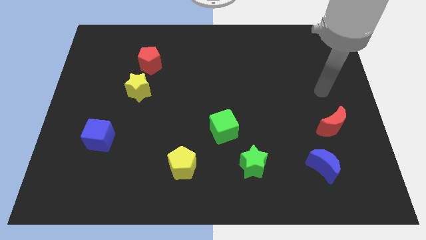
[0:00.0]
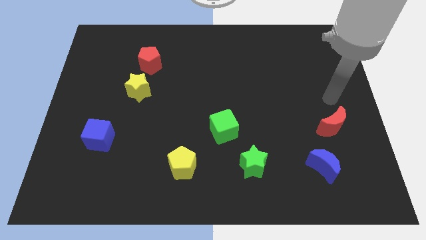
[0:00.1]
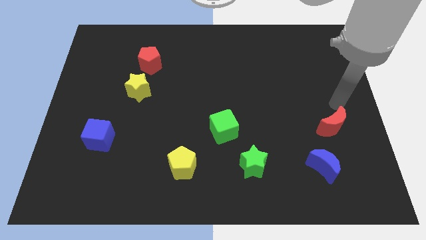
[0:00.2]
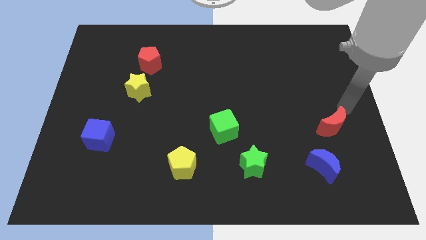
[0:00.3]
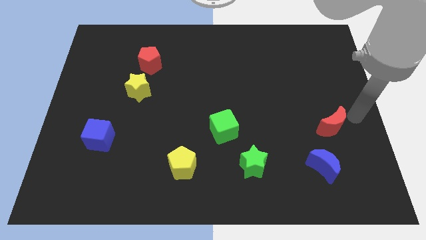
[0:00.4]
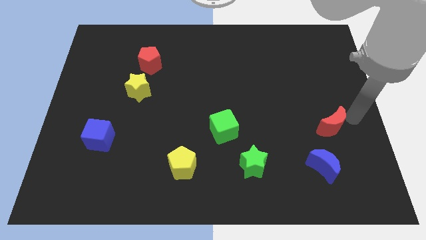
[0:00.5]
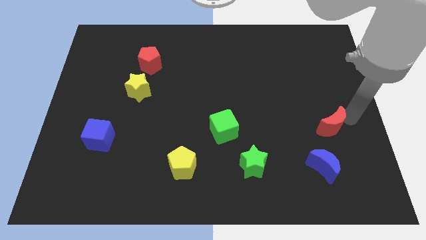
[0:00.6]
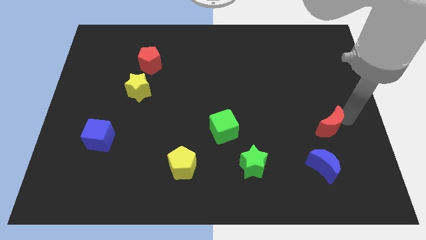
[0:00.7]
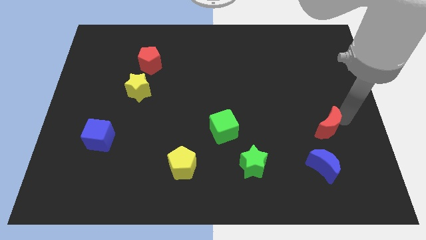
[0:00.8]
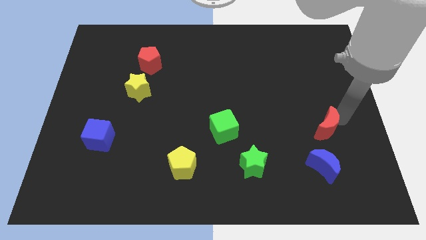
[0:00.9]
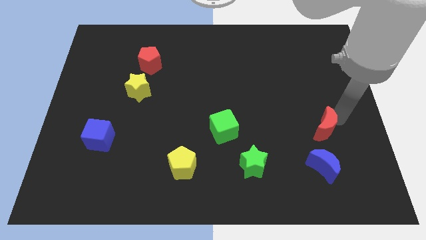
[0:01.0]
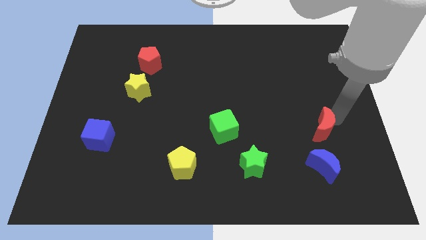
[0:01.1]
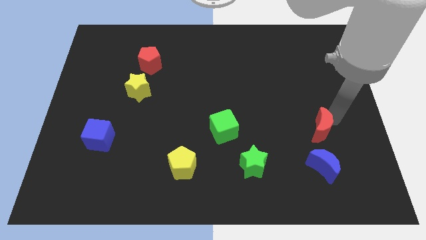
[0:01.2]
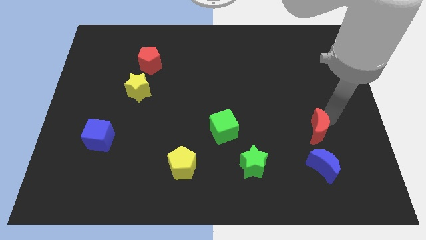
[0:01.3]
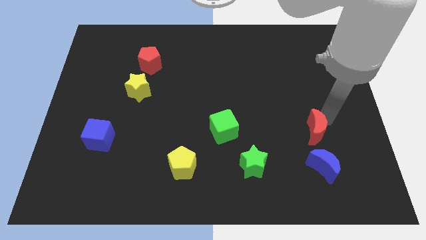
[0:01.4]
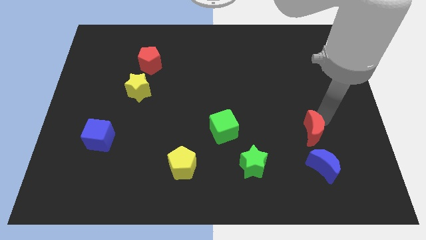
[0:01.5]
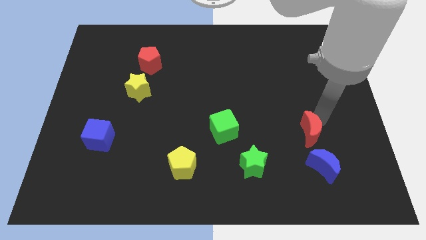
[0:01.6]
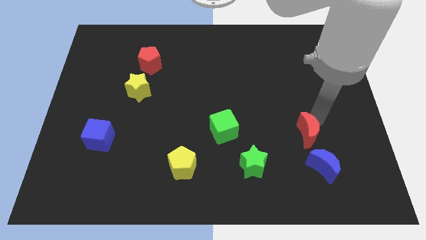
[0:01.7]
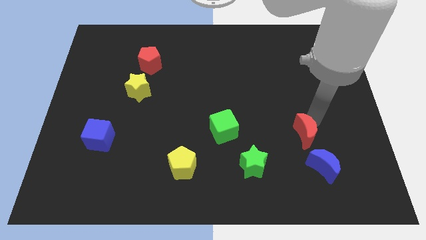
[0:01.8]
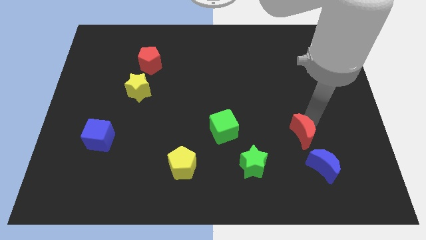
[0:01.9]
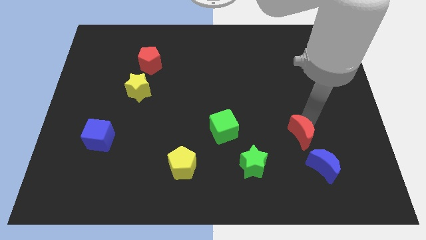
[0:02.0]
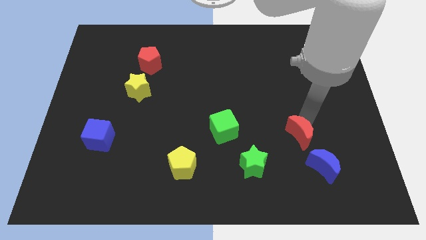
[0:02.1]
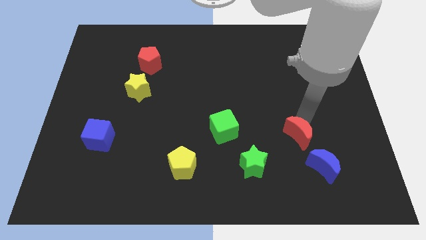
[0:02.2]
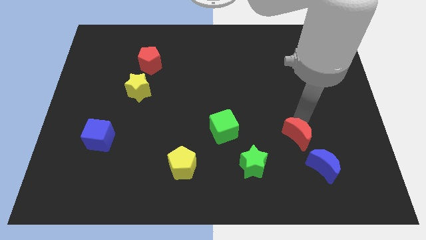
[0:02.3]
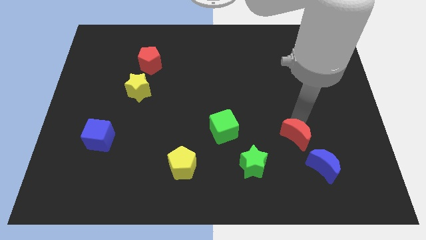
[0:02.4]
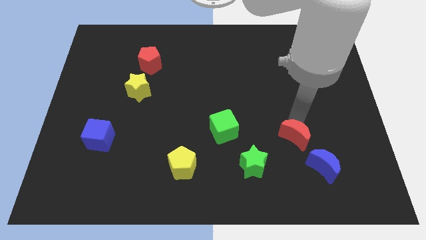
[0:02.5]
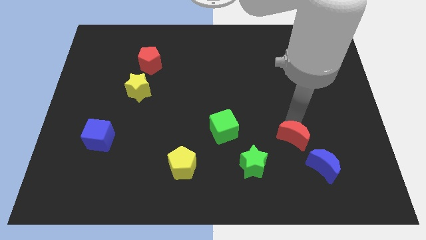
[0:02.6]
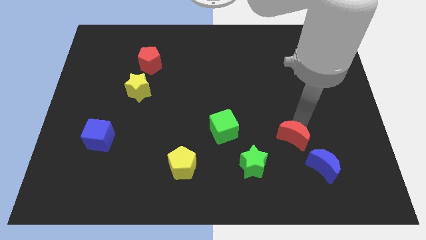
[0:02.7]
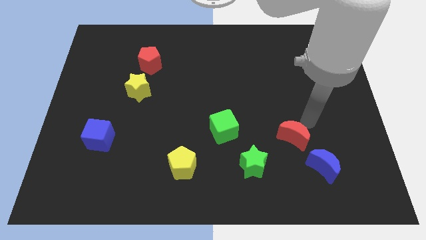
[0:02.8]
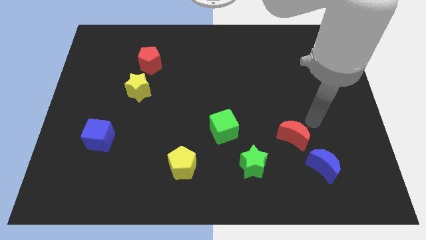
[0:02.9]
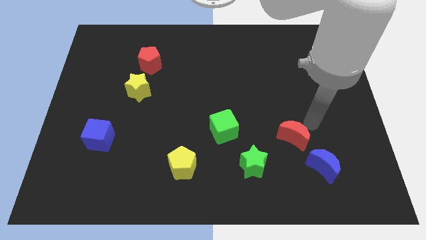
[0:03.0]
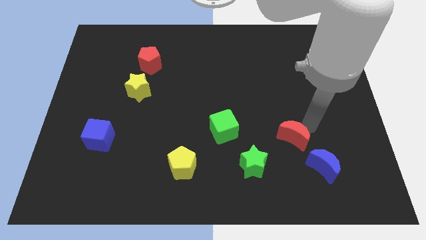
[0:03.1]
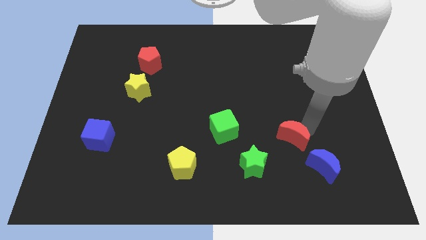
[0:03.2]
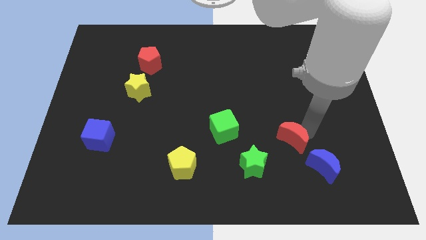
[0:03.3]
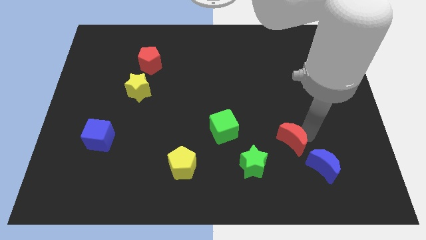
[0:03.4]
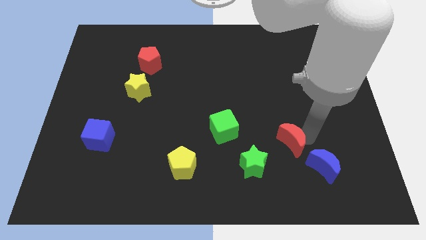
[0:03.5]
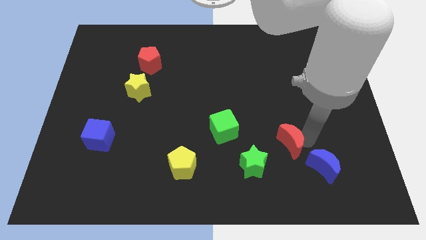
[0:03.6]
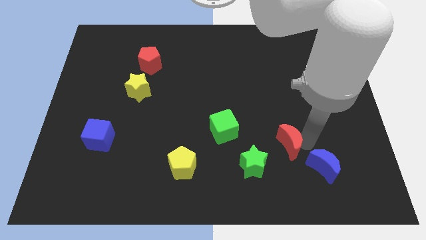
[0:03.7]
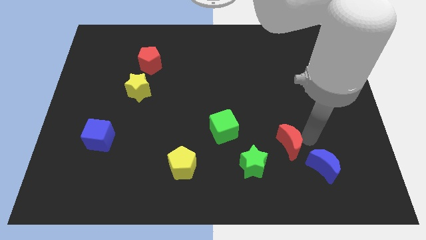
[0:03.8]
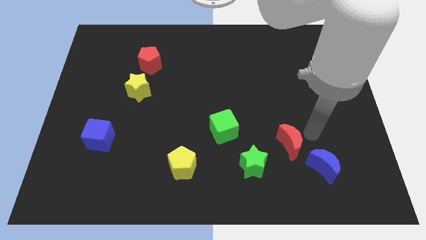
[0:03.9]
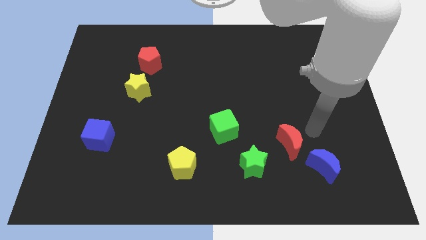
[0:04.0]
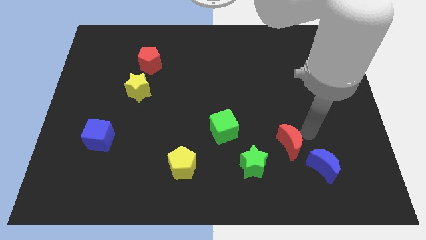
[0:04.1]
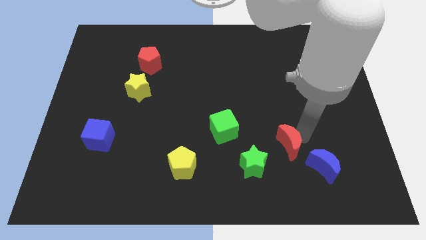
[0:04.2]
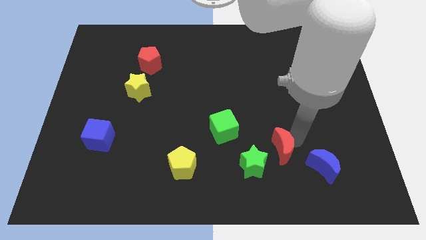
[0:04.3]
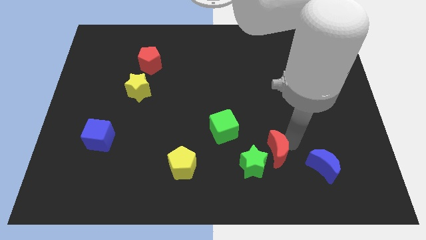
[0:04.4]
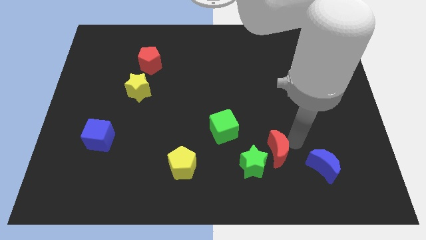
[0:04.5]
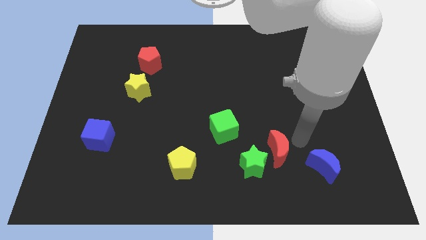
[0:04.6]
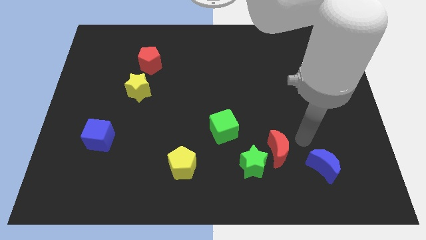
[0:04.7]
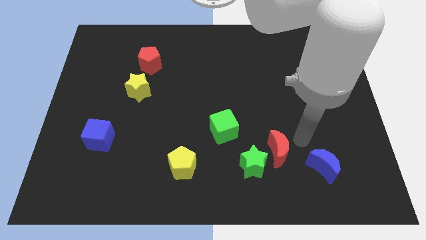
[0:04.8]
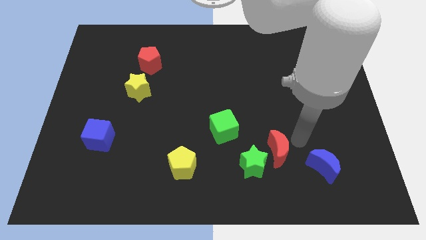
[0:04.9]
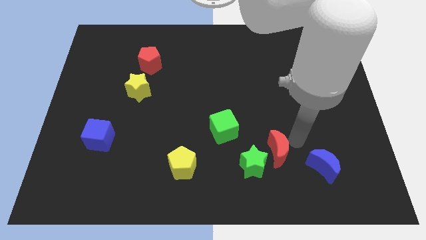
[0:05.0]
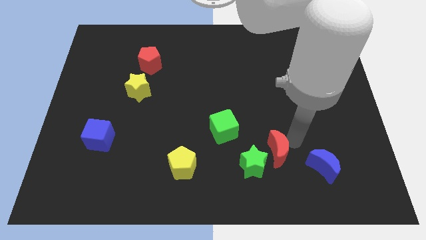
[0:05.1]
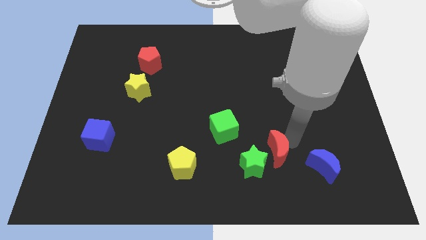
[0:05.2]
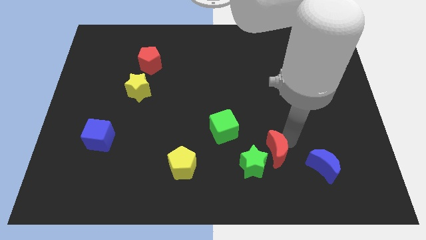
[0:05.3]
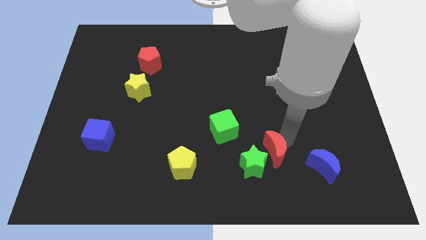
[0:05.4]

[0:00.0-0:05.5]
move the red moon next to the green star

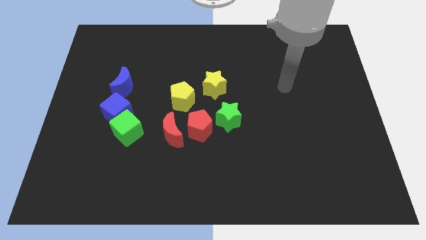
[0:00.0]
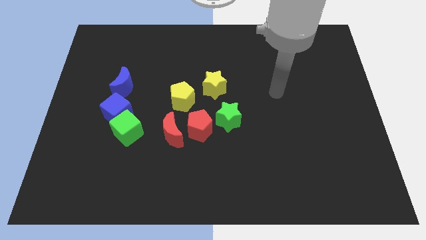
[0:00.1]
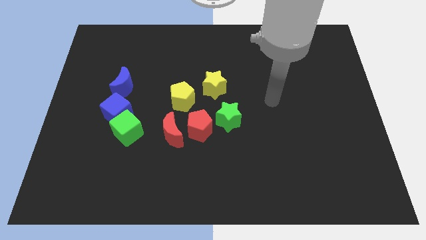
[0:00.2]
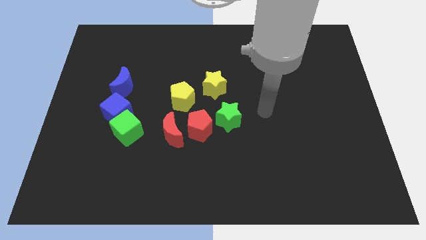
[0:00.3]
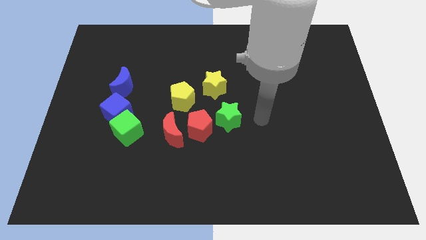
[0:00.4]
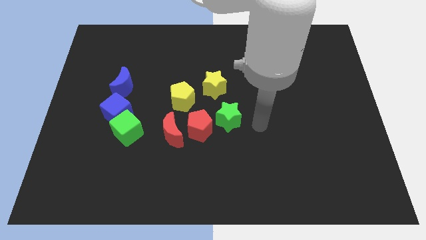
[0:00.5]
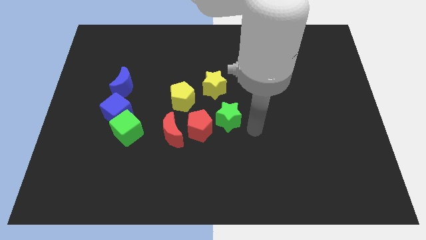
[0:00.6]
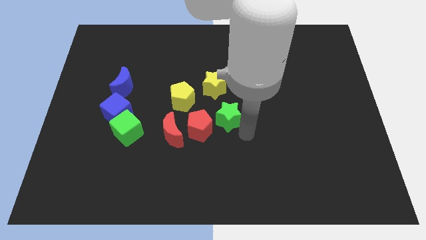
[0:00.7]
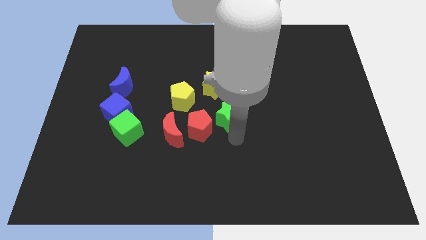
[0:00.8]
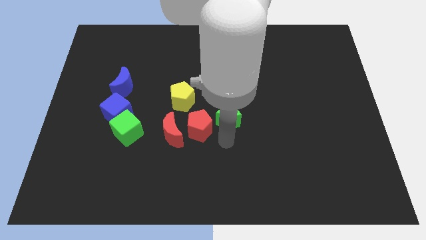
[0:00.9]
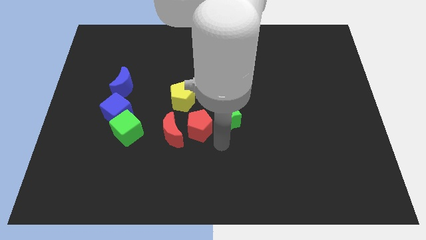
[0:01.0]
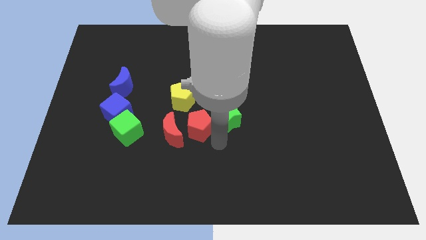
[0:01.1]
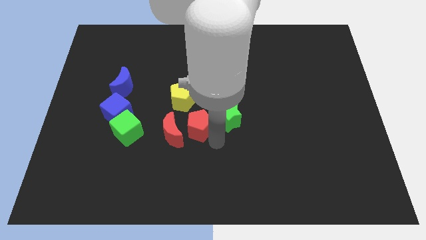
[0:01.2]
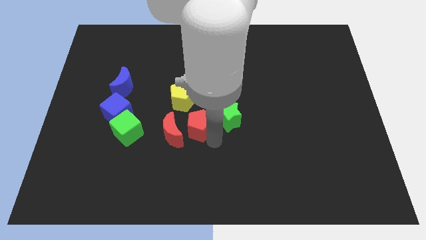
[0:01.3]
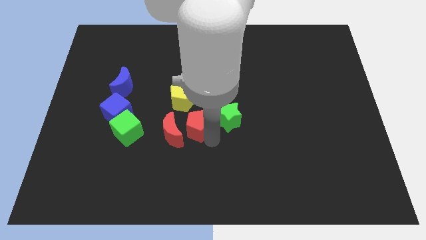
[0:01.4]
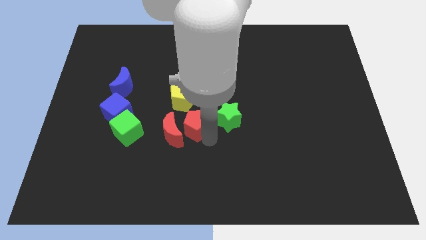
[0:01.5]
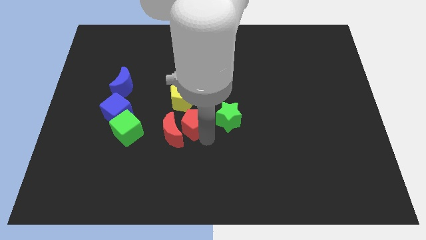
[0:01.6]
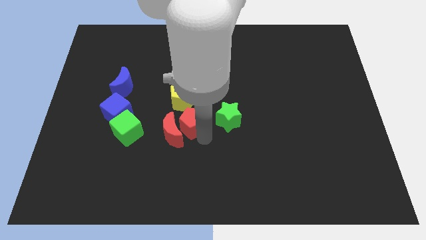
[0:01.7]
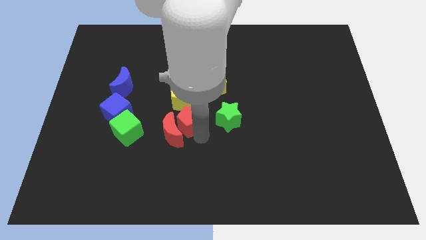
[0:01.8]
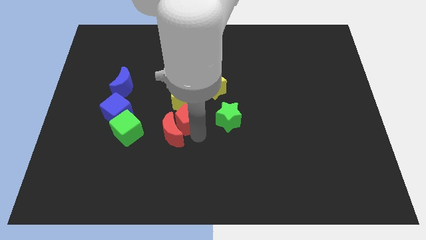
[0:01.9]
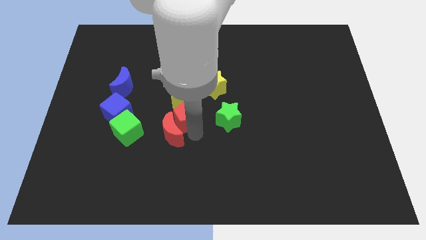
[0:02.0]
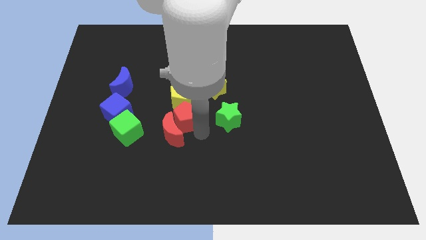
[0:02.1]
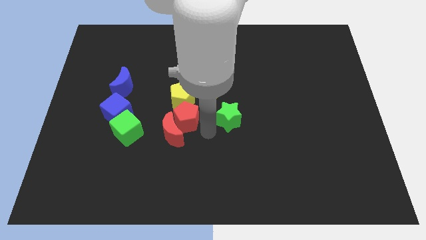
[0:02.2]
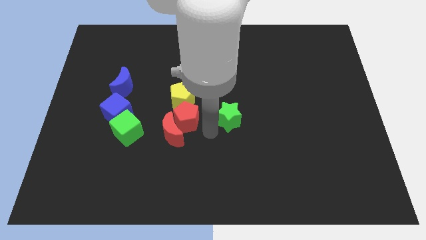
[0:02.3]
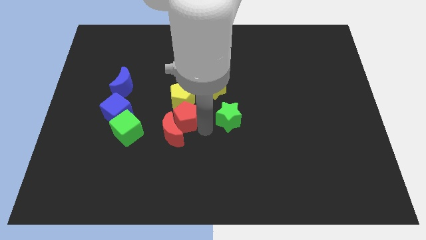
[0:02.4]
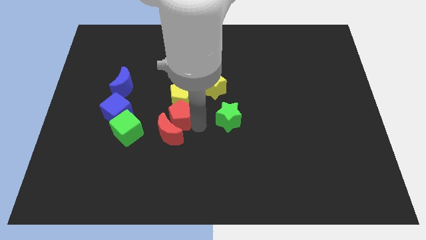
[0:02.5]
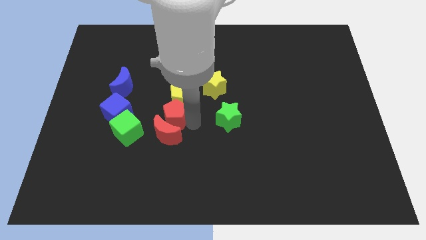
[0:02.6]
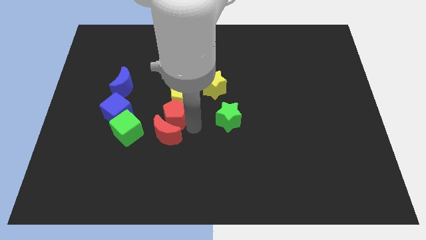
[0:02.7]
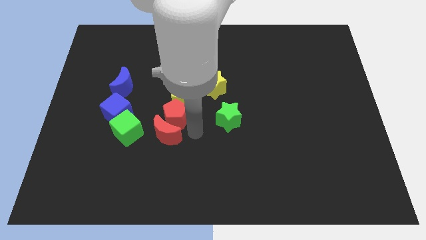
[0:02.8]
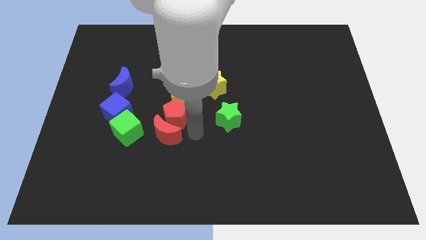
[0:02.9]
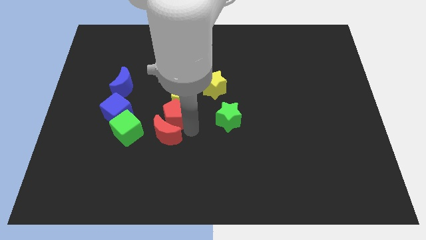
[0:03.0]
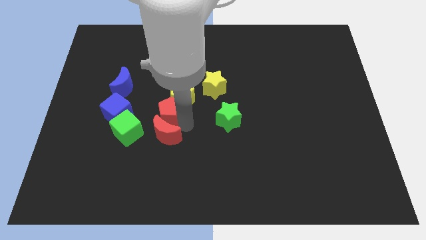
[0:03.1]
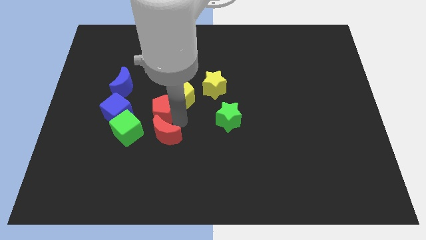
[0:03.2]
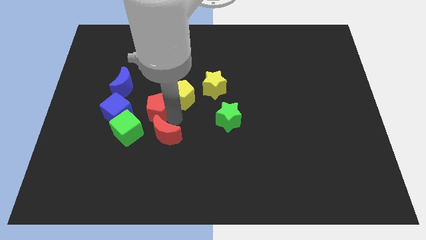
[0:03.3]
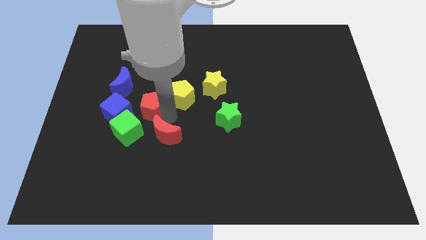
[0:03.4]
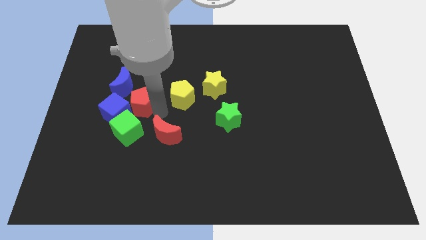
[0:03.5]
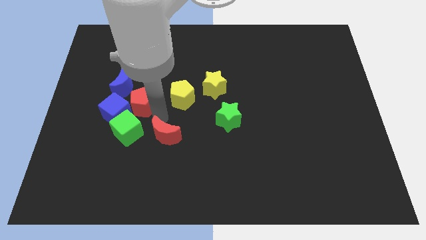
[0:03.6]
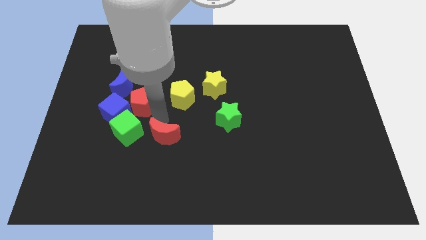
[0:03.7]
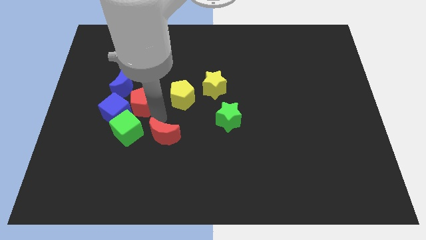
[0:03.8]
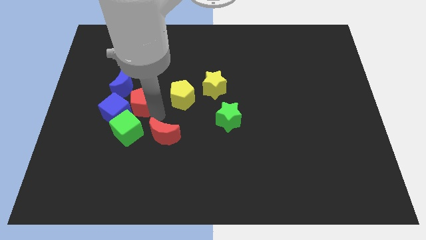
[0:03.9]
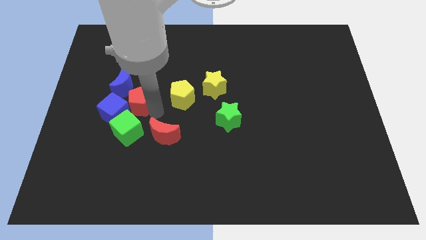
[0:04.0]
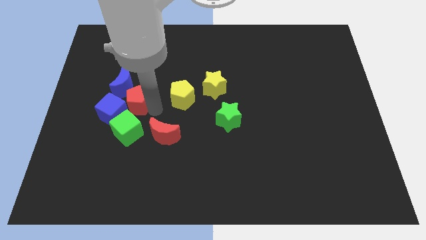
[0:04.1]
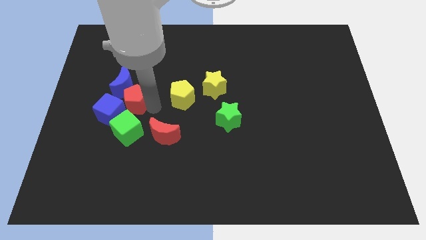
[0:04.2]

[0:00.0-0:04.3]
slide the red pentagon close to the blue moon
